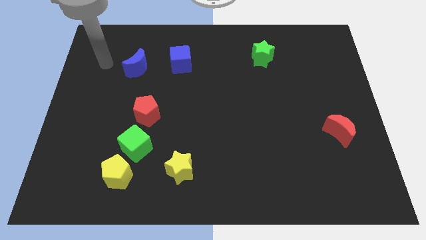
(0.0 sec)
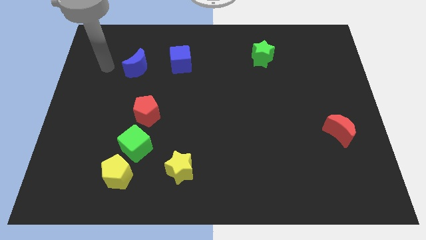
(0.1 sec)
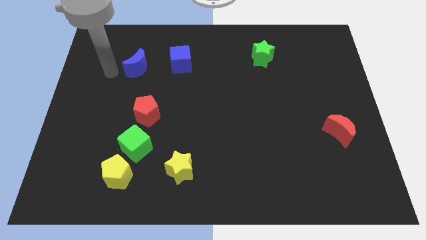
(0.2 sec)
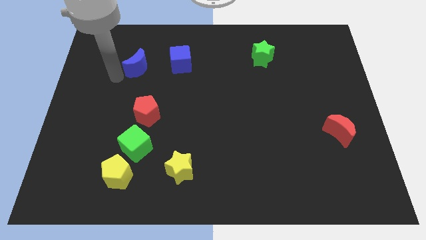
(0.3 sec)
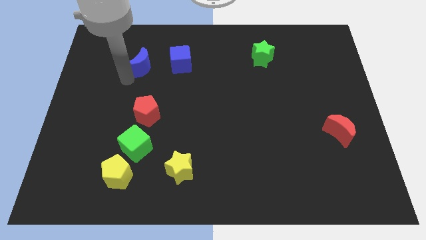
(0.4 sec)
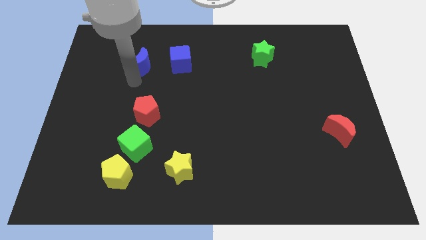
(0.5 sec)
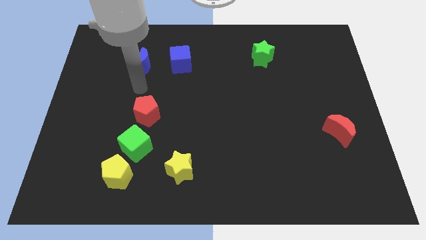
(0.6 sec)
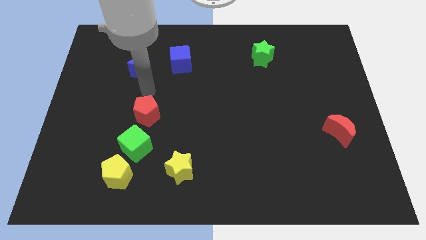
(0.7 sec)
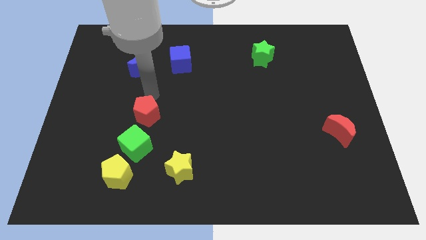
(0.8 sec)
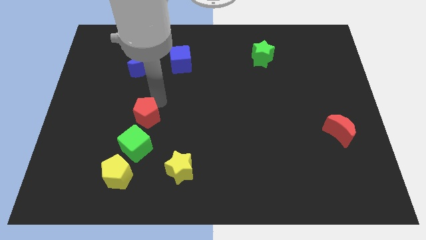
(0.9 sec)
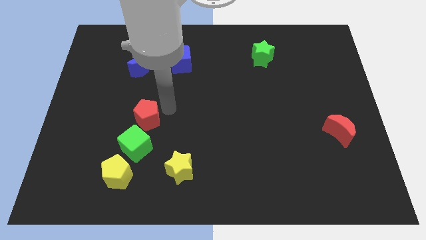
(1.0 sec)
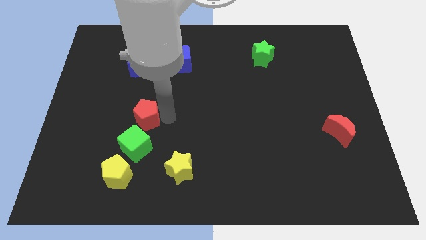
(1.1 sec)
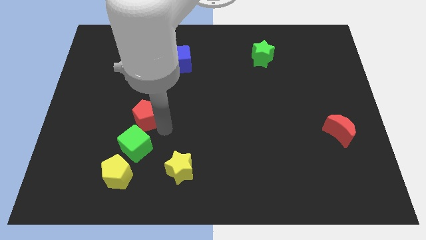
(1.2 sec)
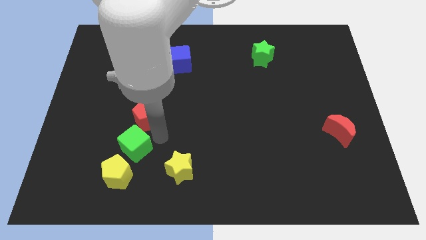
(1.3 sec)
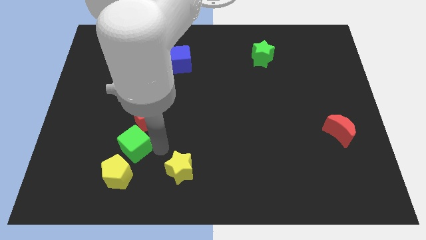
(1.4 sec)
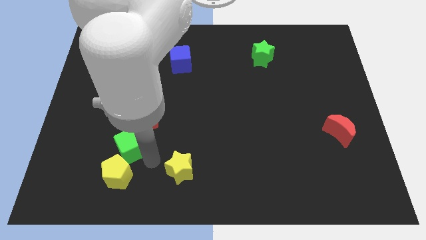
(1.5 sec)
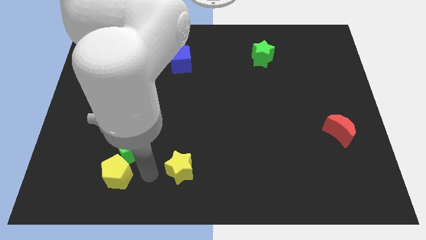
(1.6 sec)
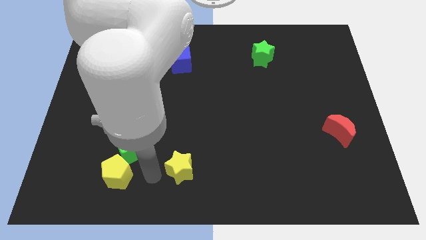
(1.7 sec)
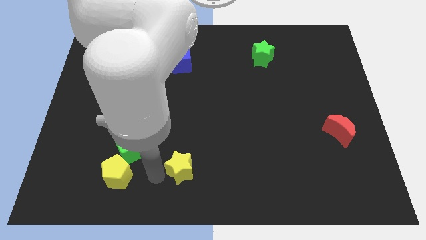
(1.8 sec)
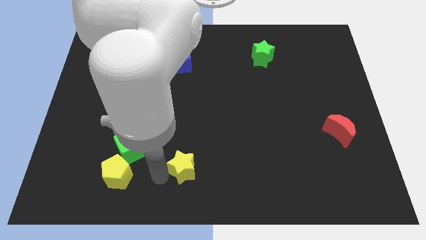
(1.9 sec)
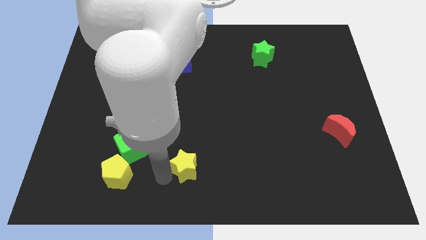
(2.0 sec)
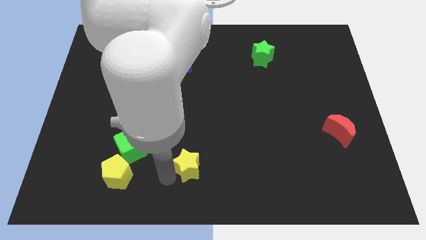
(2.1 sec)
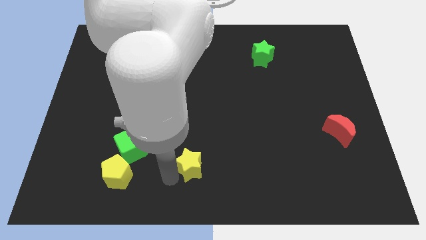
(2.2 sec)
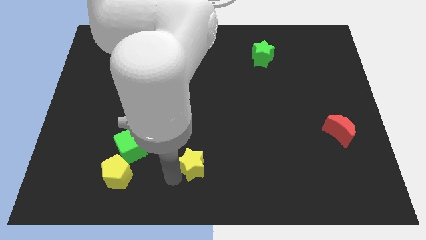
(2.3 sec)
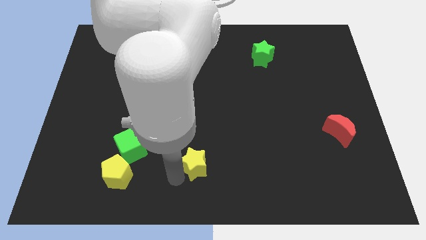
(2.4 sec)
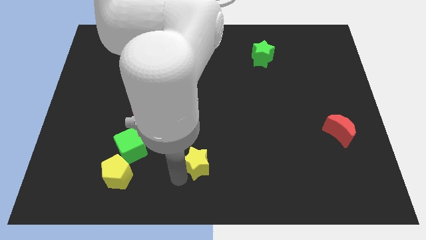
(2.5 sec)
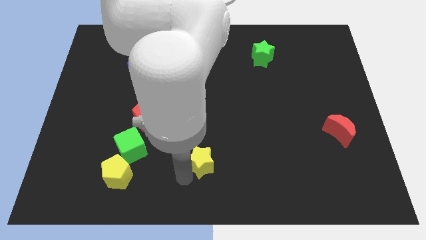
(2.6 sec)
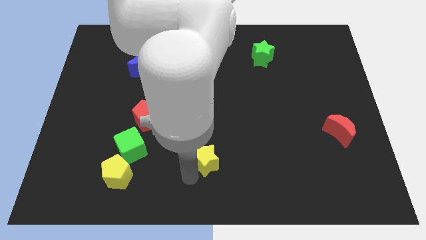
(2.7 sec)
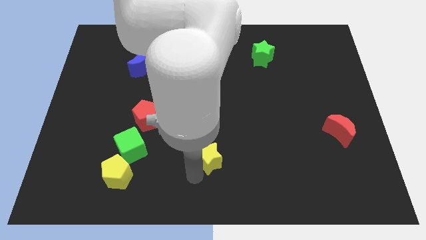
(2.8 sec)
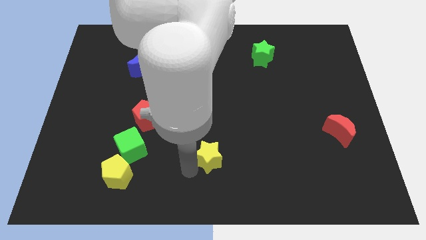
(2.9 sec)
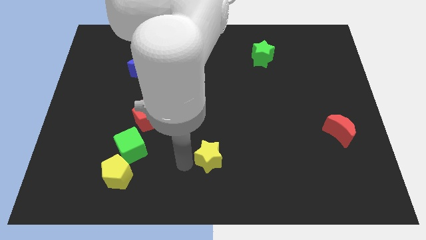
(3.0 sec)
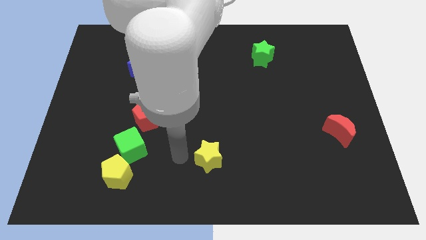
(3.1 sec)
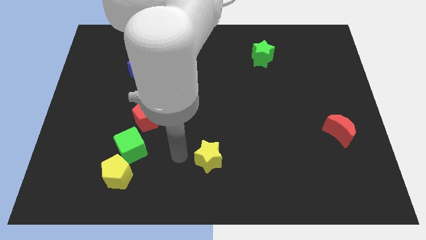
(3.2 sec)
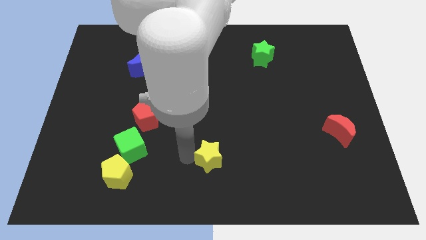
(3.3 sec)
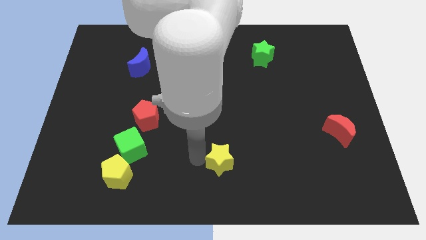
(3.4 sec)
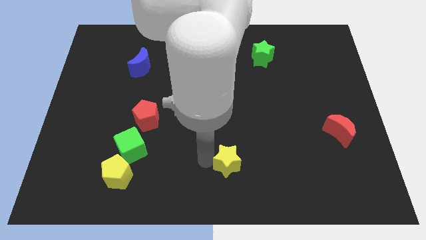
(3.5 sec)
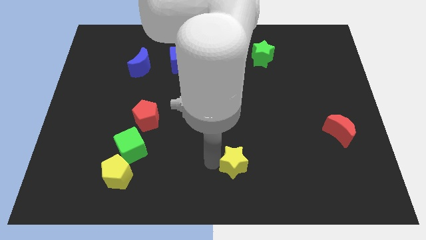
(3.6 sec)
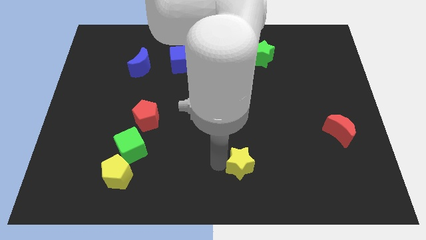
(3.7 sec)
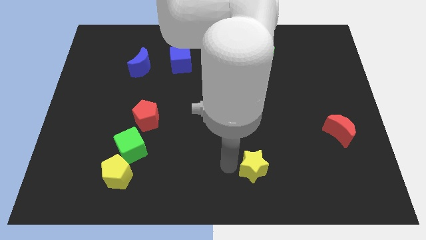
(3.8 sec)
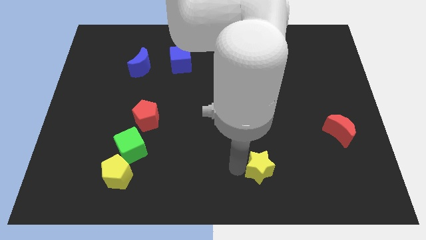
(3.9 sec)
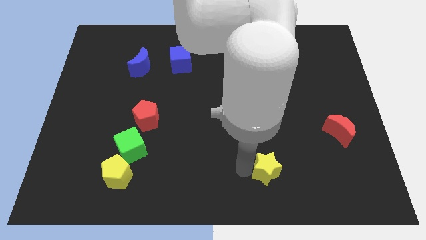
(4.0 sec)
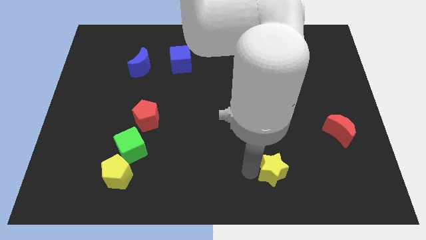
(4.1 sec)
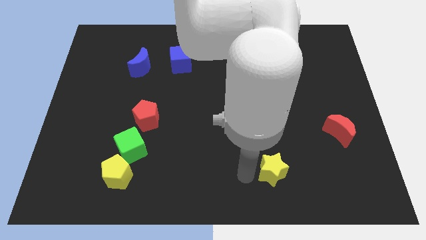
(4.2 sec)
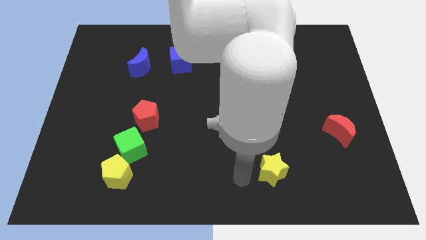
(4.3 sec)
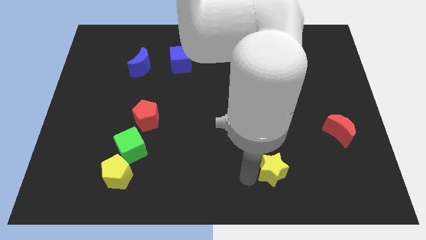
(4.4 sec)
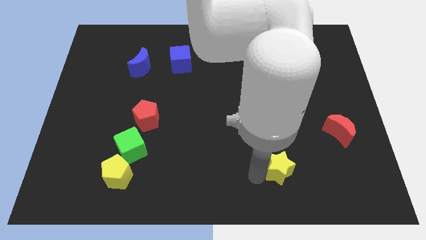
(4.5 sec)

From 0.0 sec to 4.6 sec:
push the yellow star right

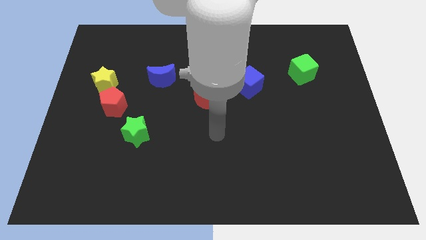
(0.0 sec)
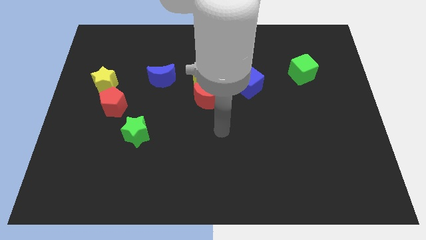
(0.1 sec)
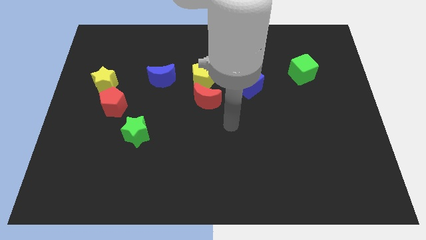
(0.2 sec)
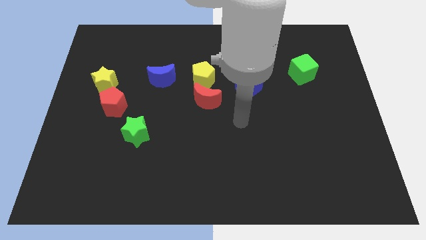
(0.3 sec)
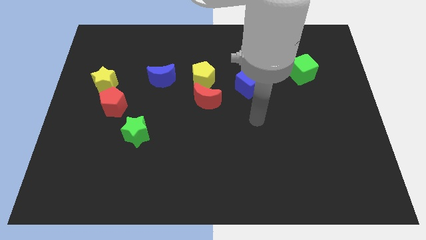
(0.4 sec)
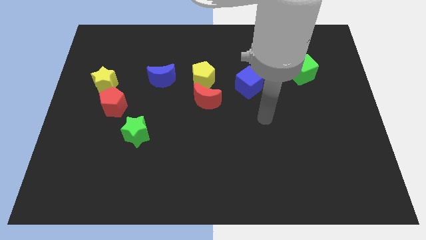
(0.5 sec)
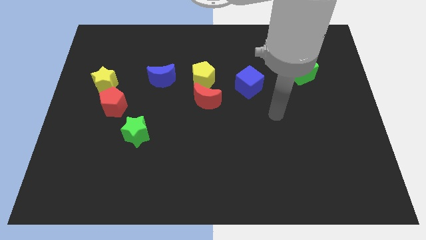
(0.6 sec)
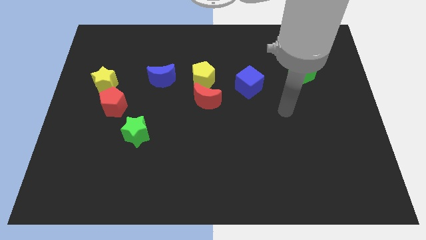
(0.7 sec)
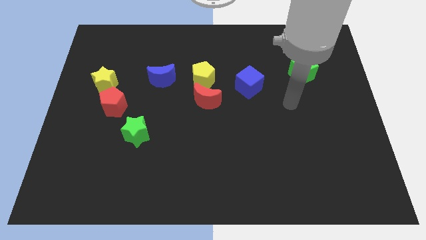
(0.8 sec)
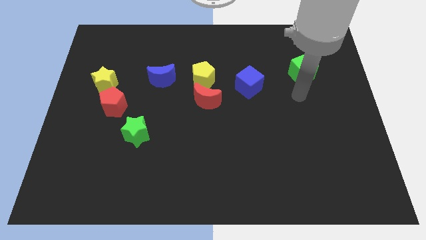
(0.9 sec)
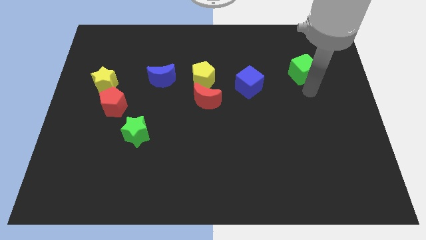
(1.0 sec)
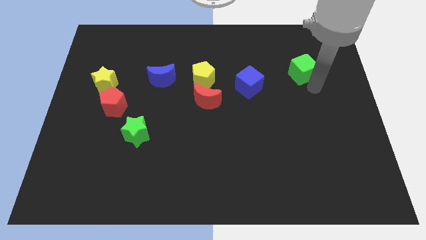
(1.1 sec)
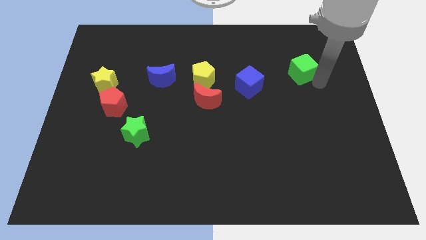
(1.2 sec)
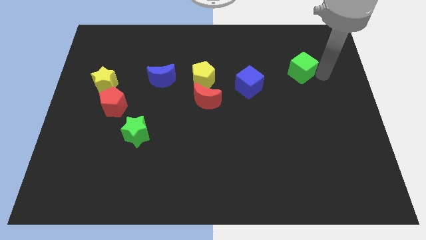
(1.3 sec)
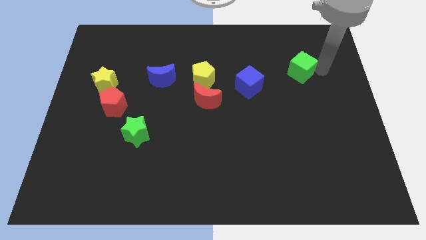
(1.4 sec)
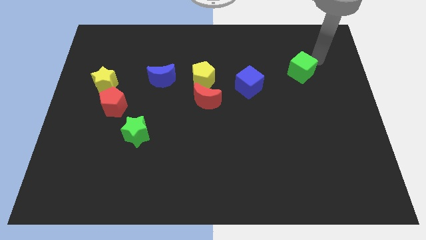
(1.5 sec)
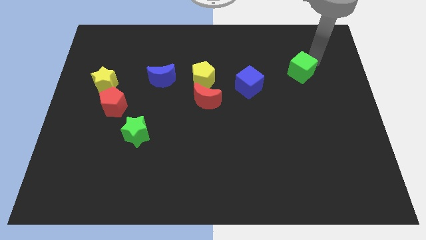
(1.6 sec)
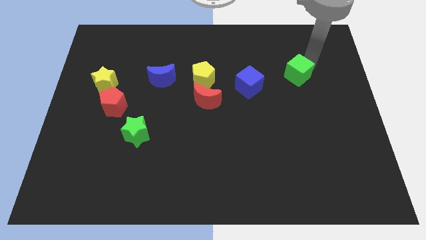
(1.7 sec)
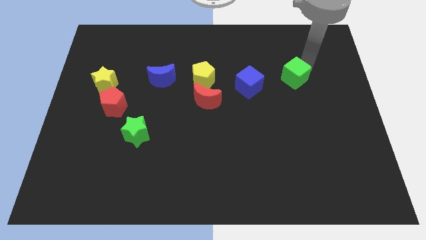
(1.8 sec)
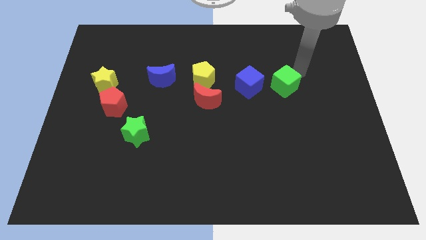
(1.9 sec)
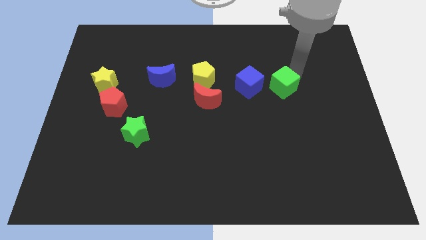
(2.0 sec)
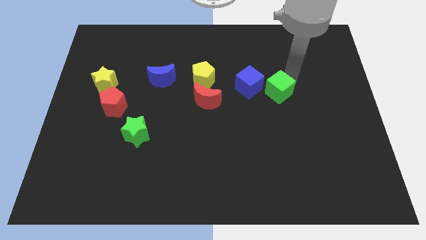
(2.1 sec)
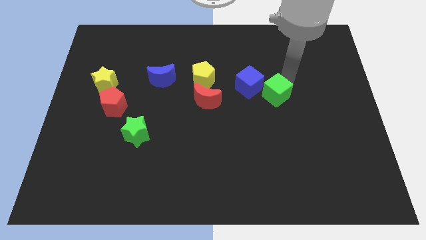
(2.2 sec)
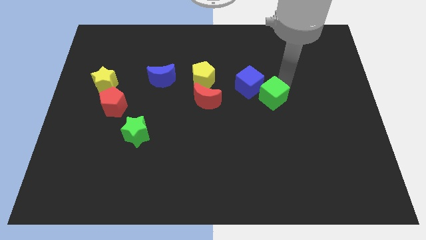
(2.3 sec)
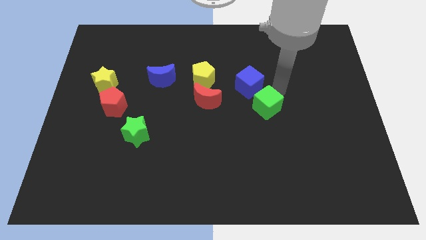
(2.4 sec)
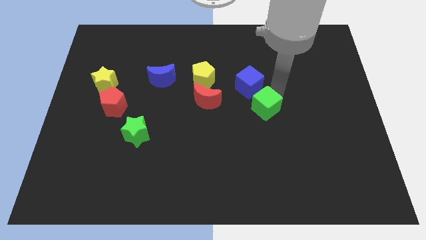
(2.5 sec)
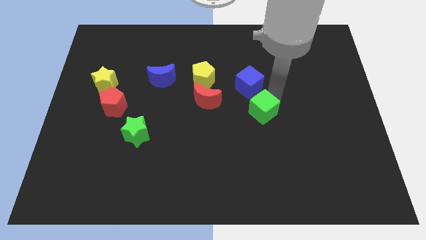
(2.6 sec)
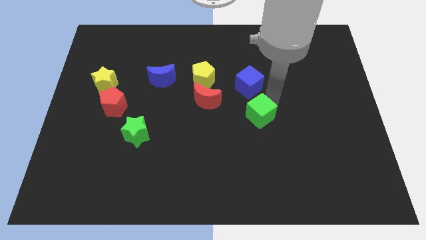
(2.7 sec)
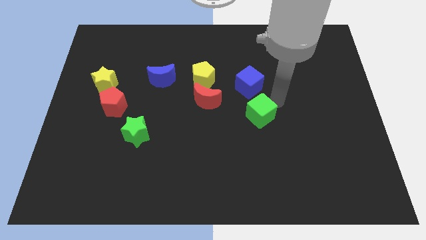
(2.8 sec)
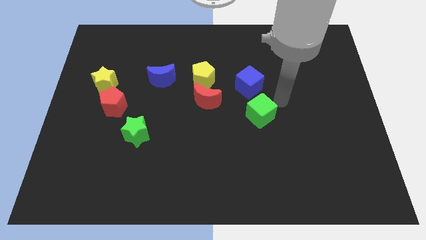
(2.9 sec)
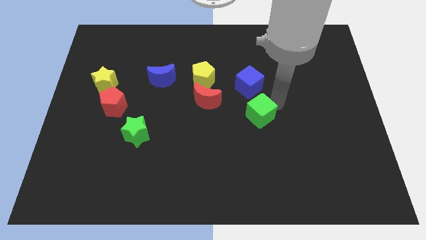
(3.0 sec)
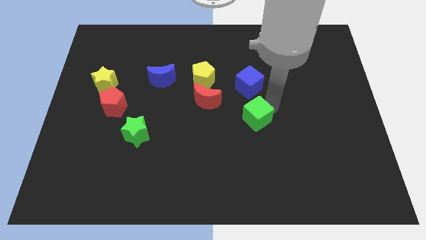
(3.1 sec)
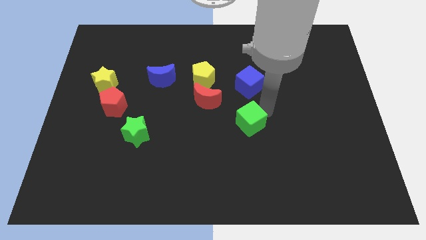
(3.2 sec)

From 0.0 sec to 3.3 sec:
slide the green cube downwards and to the left
